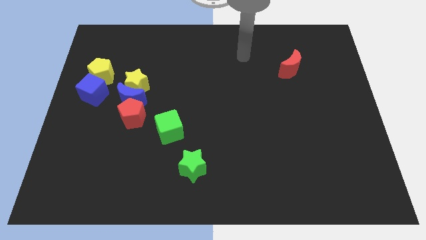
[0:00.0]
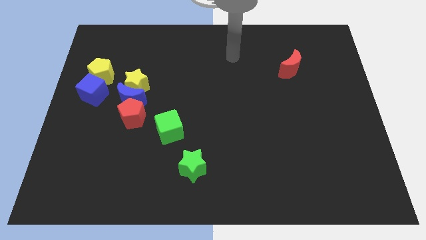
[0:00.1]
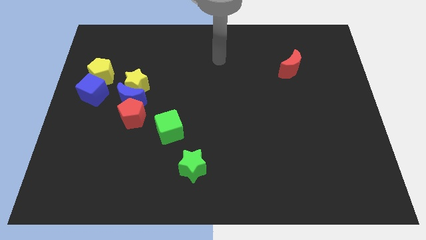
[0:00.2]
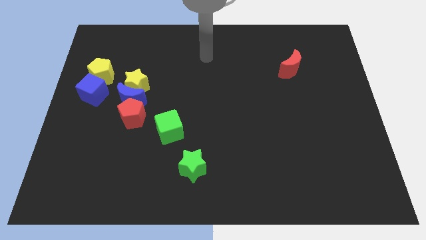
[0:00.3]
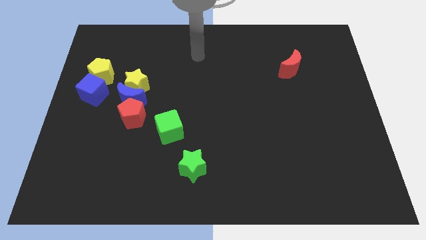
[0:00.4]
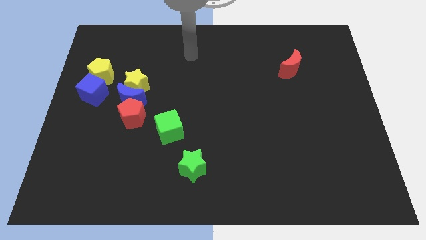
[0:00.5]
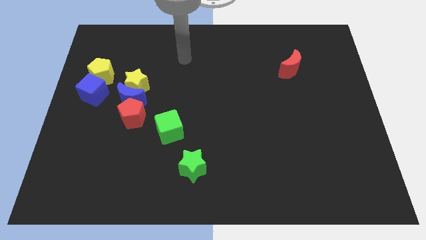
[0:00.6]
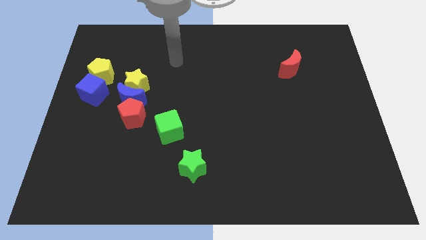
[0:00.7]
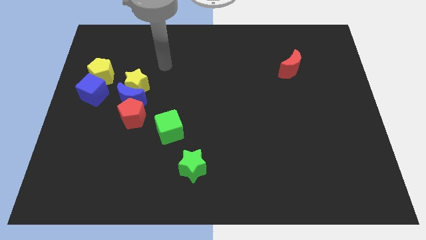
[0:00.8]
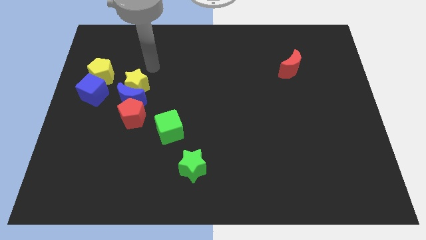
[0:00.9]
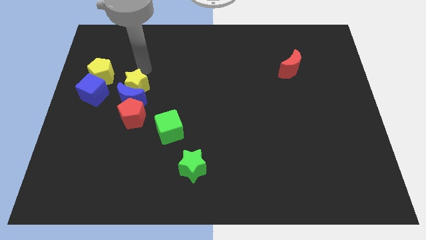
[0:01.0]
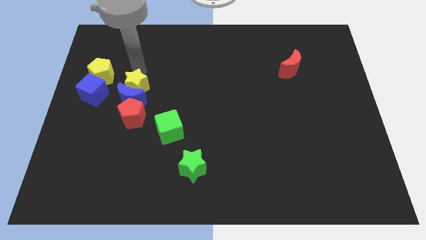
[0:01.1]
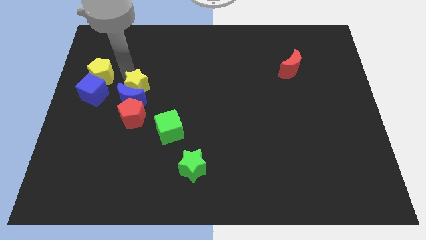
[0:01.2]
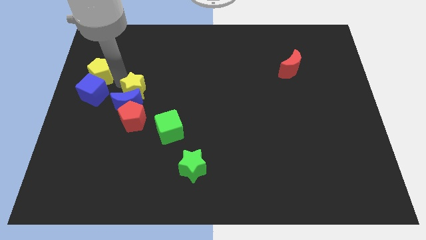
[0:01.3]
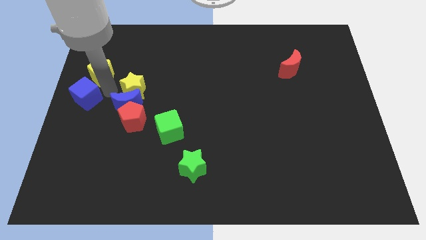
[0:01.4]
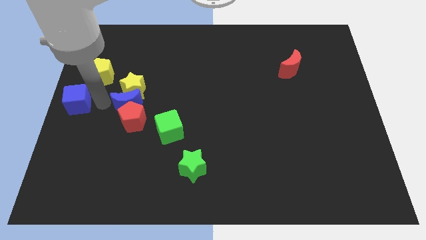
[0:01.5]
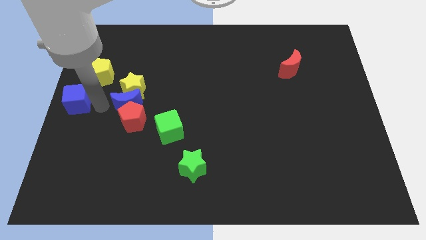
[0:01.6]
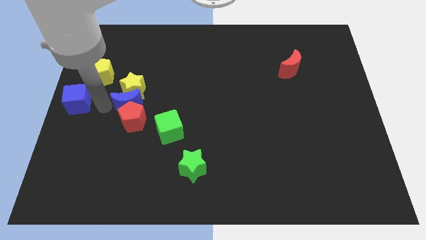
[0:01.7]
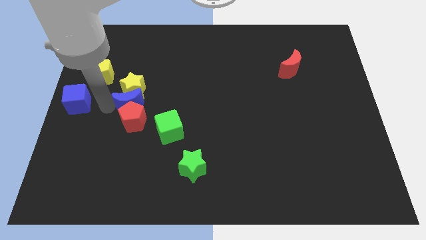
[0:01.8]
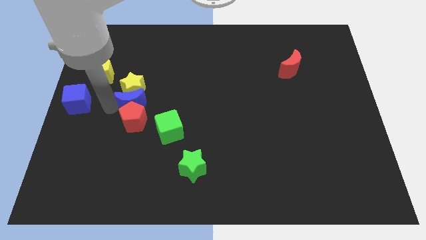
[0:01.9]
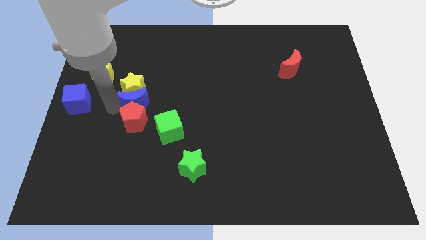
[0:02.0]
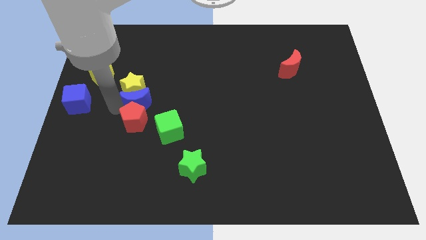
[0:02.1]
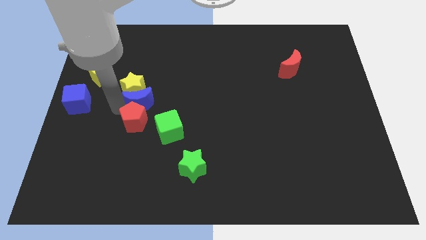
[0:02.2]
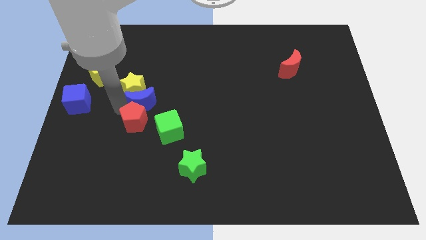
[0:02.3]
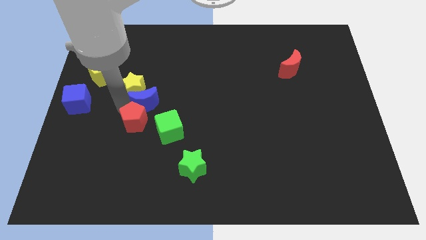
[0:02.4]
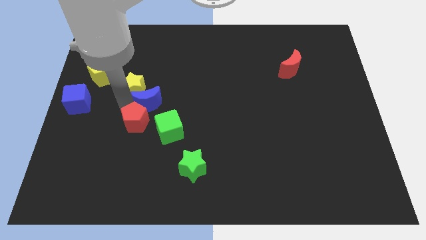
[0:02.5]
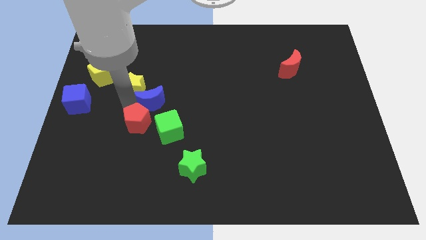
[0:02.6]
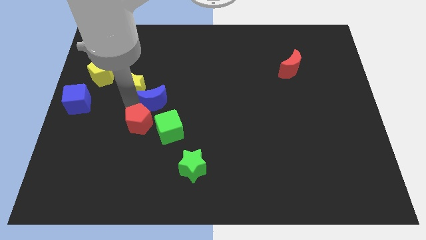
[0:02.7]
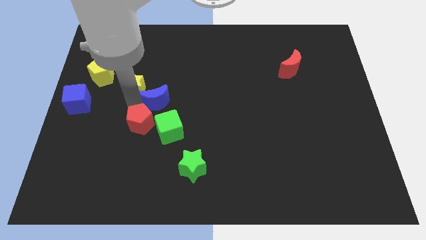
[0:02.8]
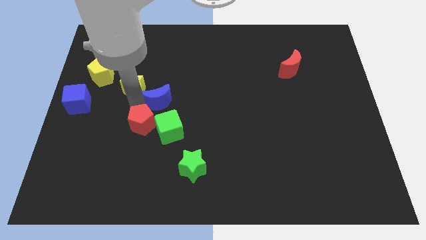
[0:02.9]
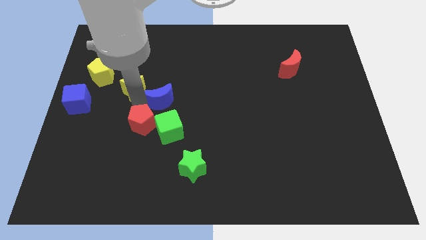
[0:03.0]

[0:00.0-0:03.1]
separate the blue moon from the yellow star, red pentagon, and blue cube

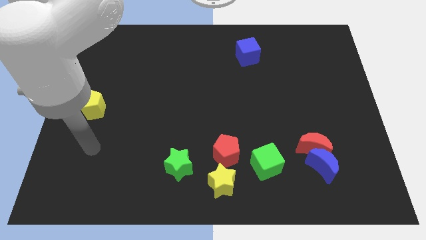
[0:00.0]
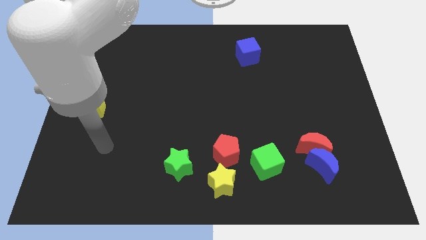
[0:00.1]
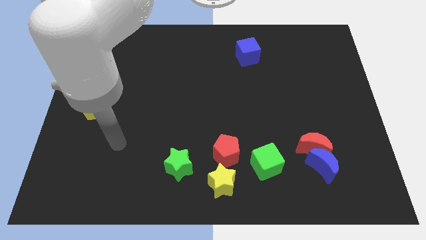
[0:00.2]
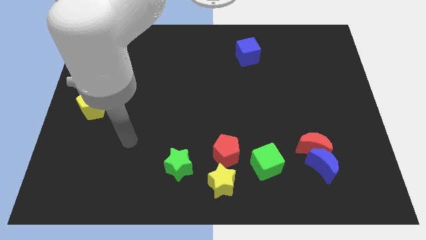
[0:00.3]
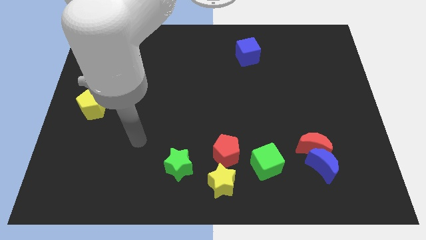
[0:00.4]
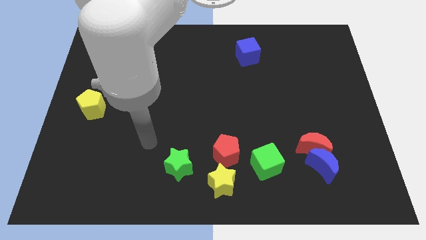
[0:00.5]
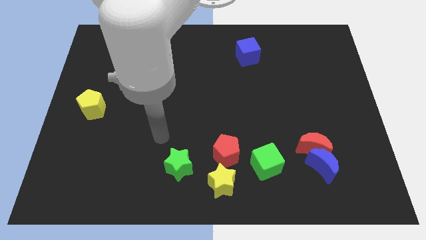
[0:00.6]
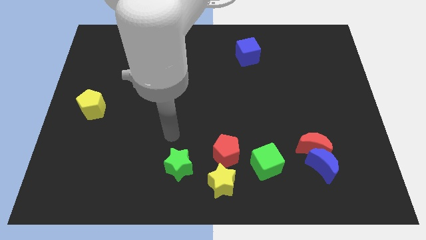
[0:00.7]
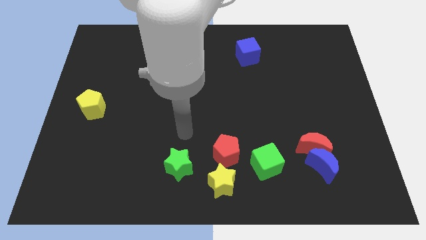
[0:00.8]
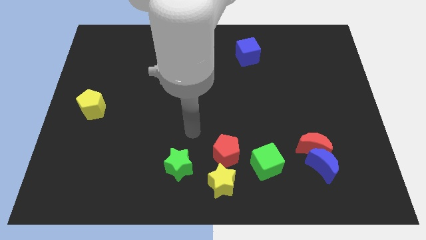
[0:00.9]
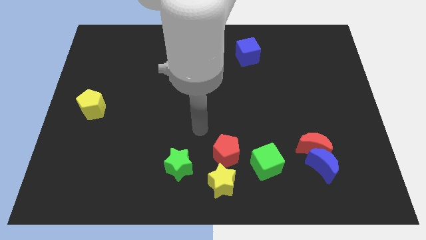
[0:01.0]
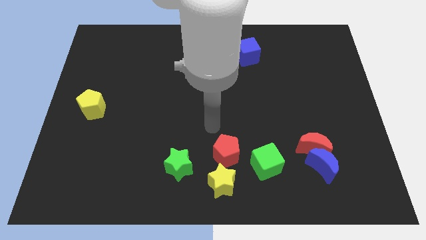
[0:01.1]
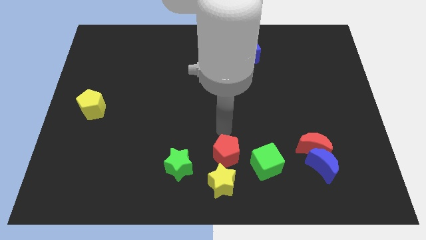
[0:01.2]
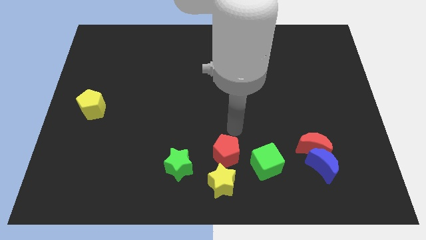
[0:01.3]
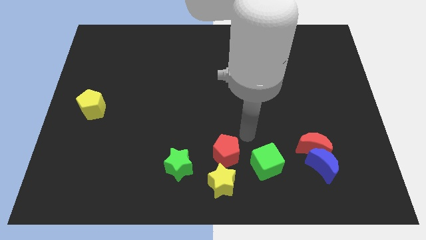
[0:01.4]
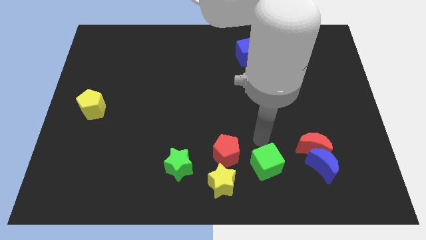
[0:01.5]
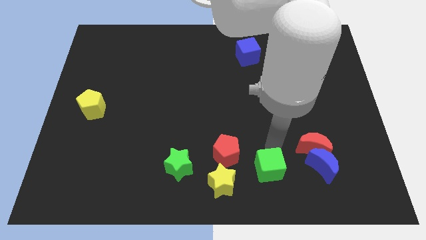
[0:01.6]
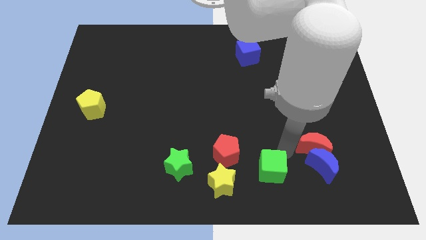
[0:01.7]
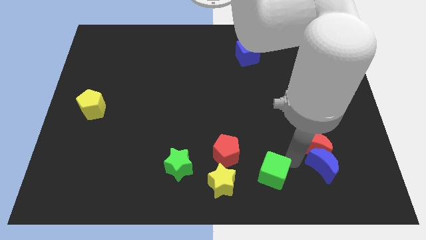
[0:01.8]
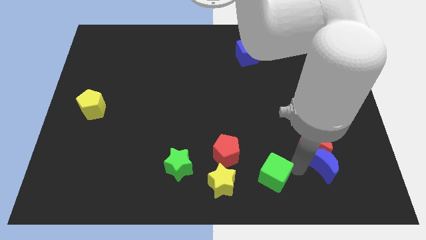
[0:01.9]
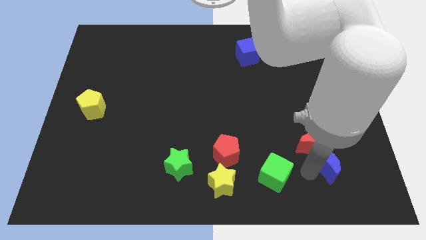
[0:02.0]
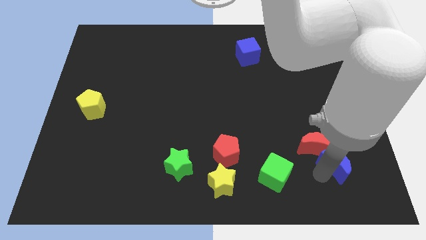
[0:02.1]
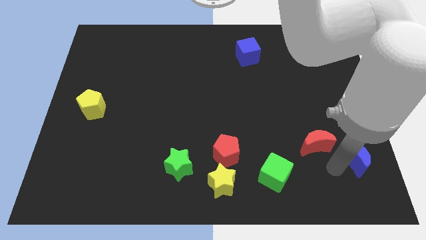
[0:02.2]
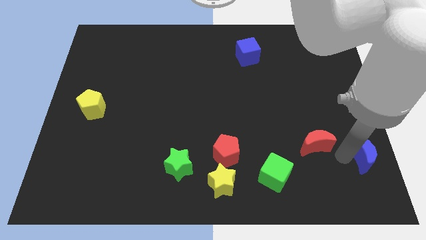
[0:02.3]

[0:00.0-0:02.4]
separate the red moon from the blue moon

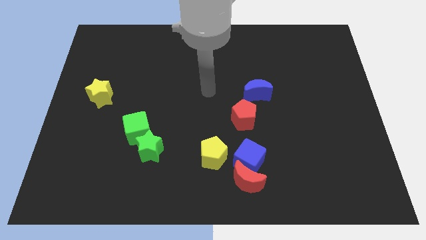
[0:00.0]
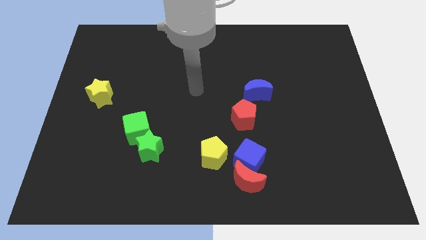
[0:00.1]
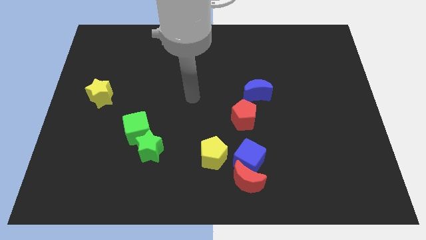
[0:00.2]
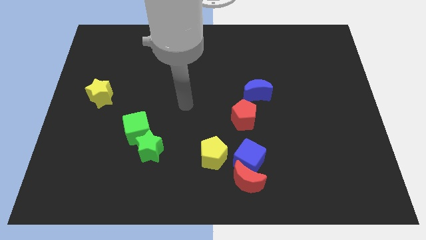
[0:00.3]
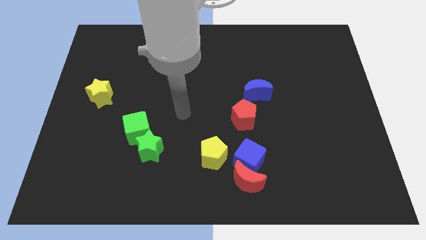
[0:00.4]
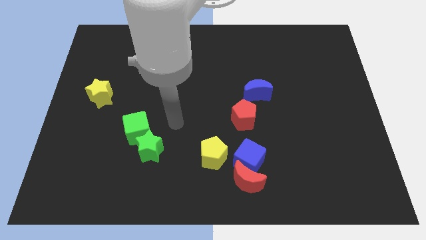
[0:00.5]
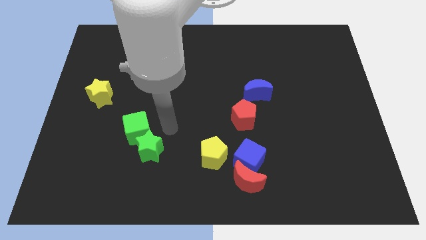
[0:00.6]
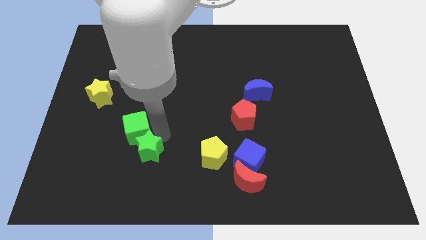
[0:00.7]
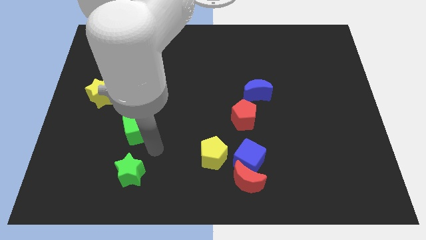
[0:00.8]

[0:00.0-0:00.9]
move the green cube away from the green star

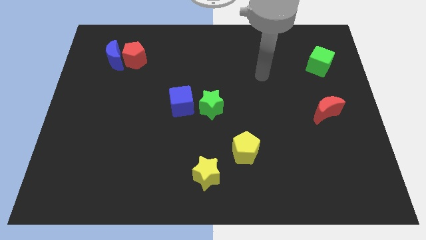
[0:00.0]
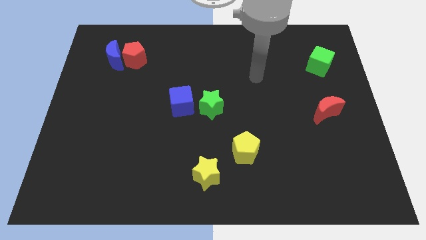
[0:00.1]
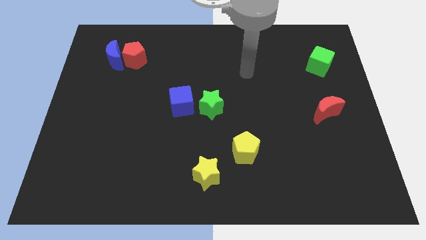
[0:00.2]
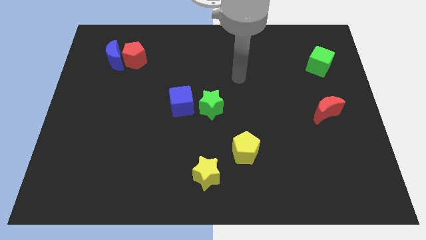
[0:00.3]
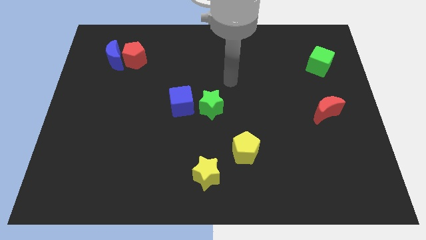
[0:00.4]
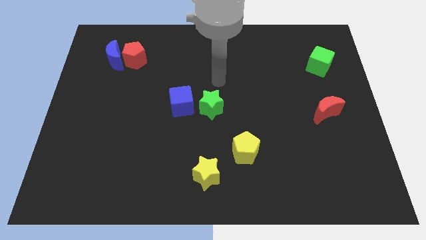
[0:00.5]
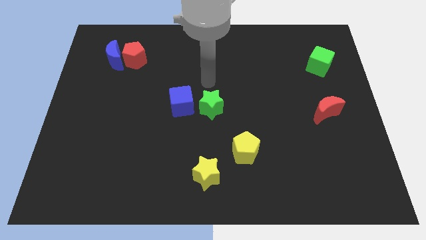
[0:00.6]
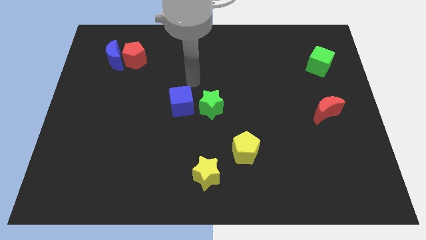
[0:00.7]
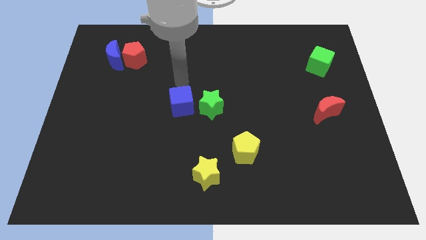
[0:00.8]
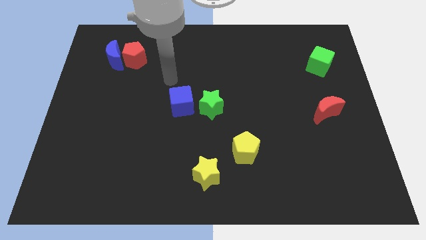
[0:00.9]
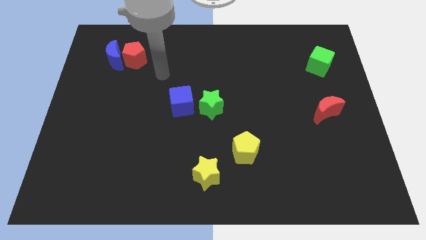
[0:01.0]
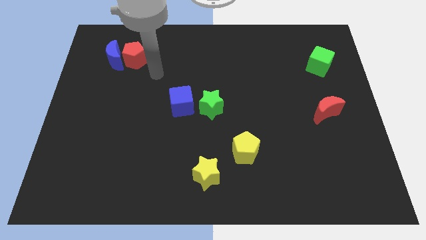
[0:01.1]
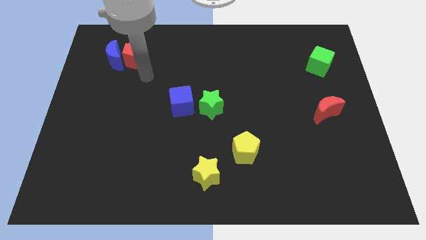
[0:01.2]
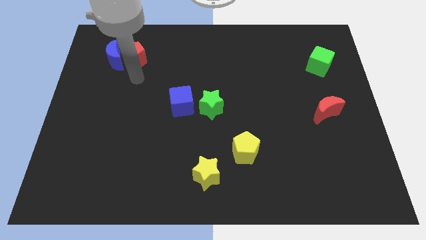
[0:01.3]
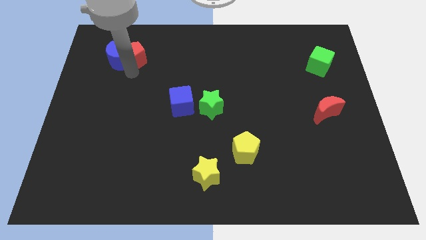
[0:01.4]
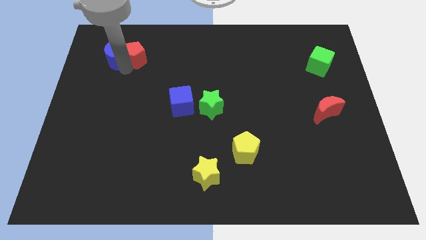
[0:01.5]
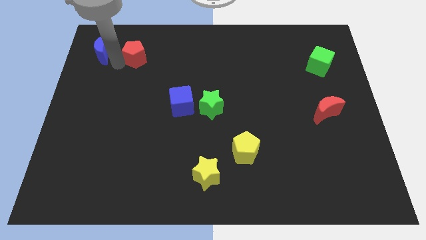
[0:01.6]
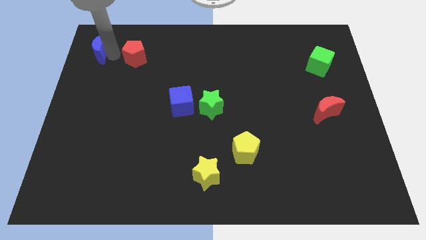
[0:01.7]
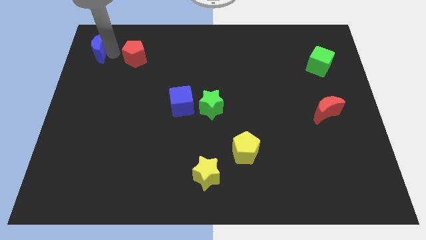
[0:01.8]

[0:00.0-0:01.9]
separate the red pentagon from the blue moon

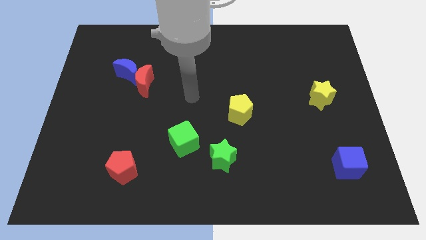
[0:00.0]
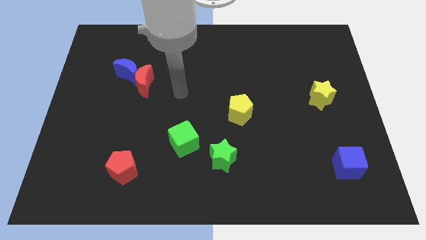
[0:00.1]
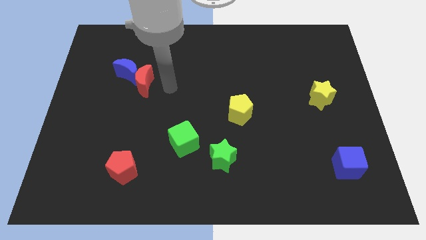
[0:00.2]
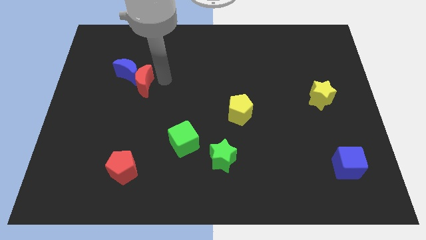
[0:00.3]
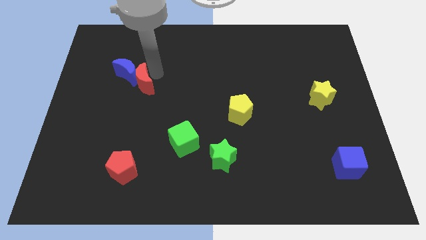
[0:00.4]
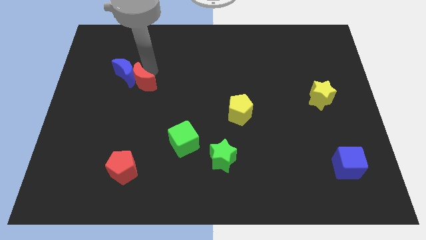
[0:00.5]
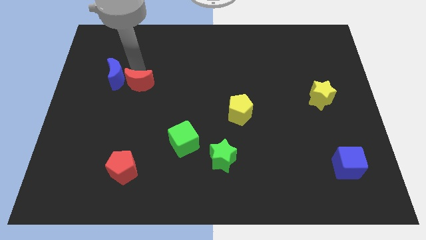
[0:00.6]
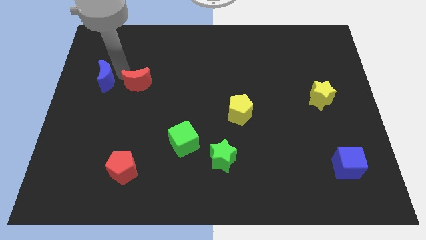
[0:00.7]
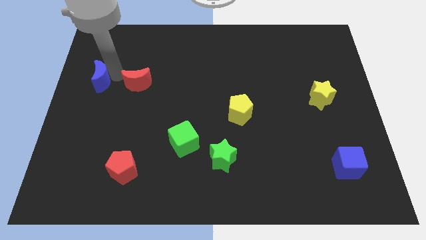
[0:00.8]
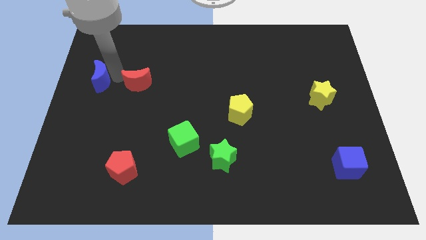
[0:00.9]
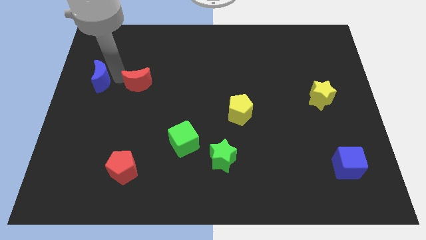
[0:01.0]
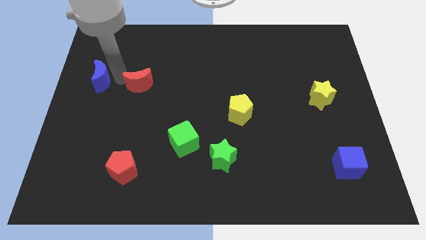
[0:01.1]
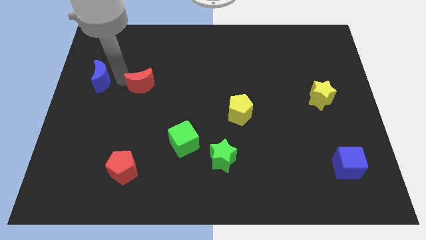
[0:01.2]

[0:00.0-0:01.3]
move the red moon away from the blue moon
